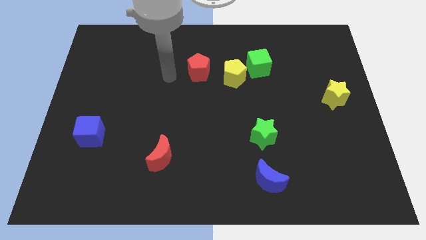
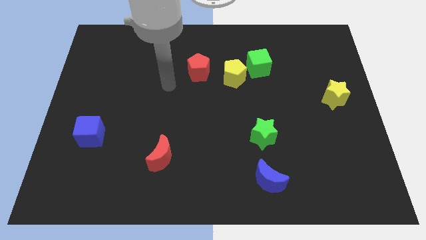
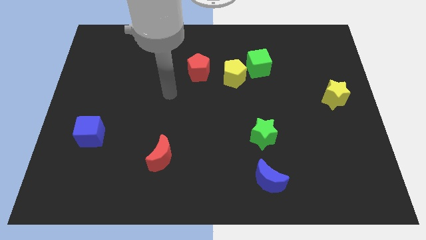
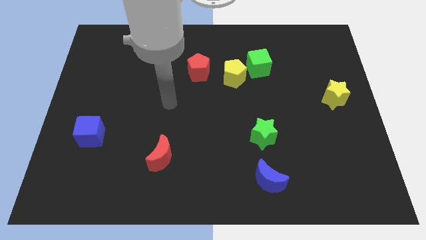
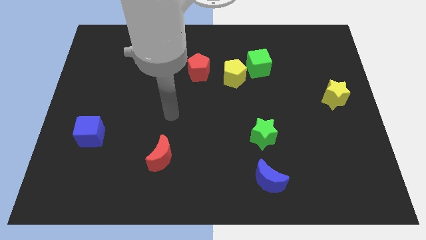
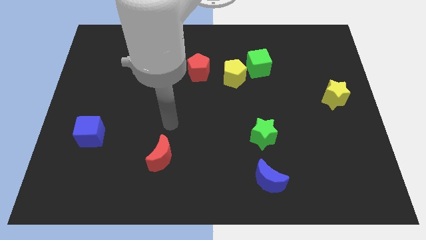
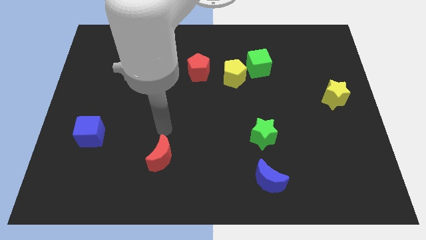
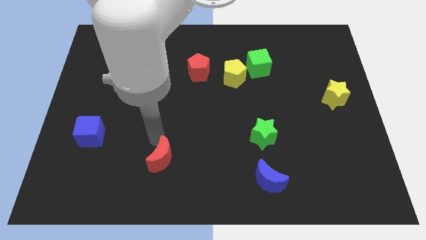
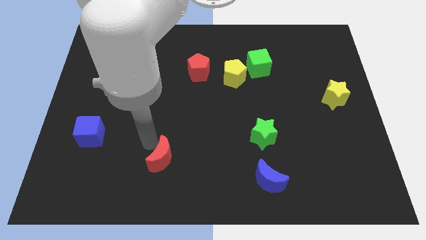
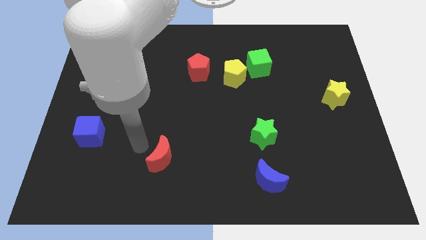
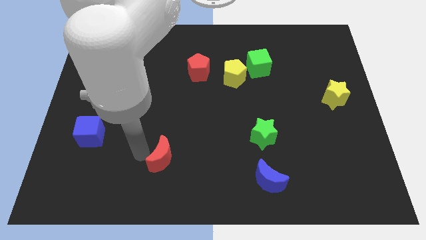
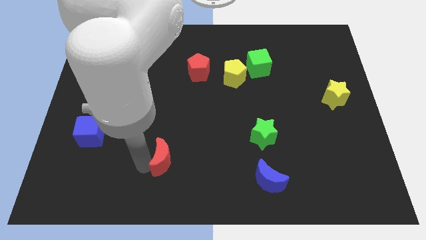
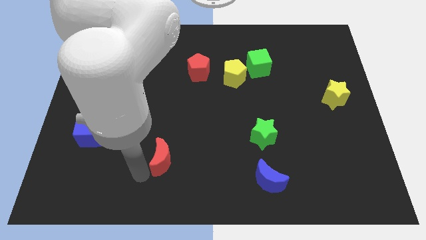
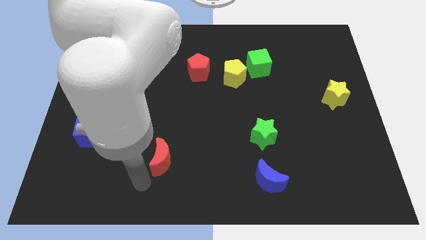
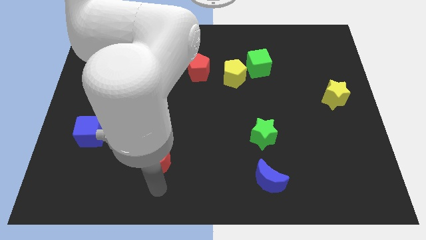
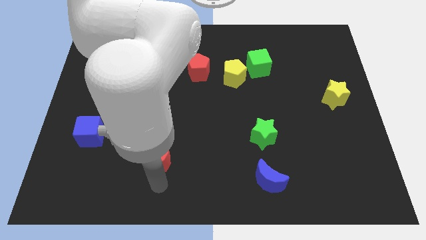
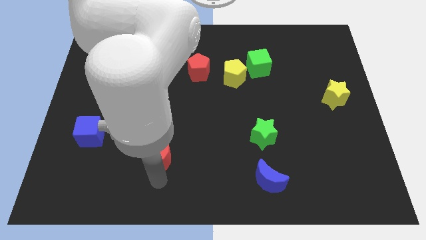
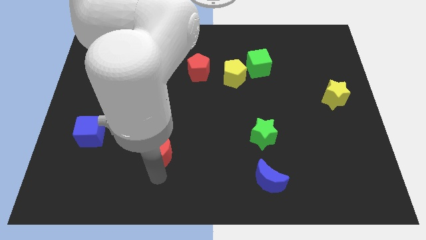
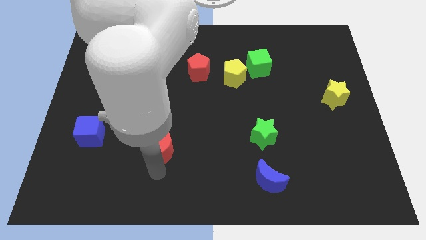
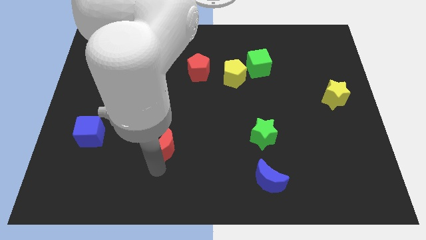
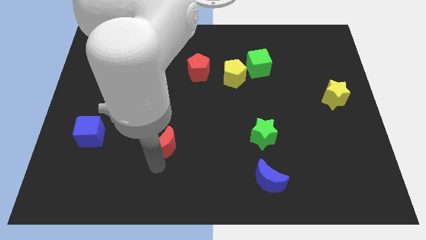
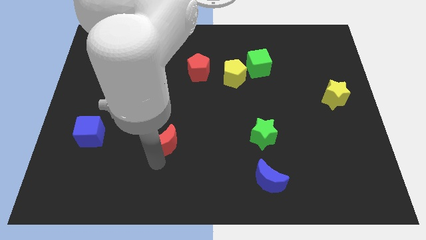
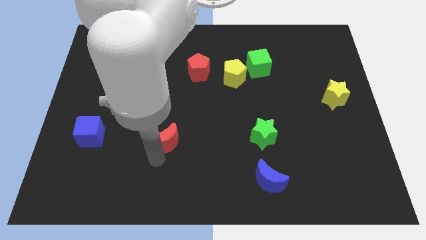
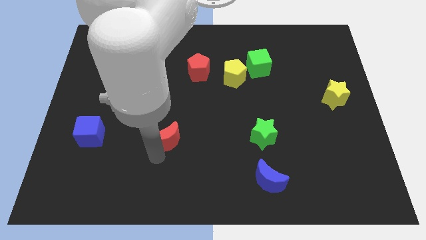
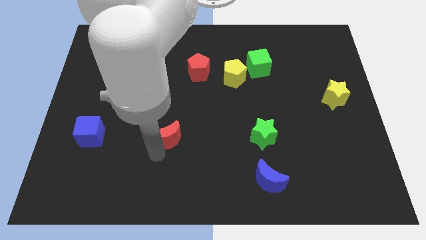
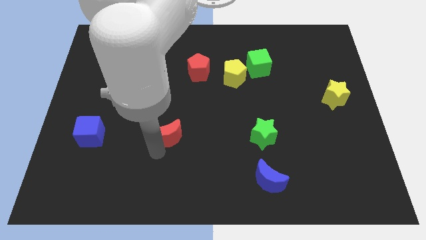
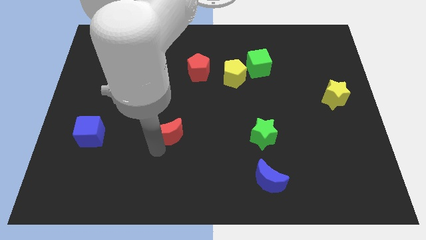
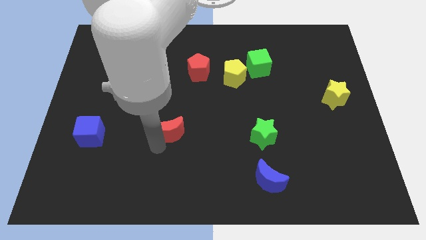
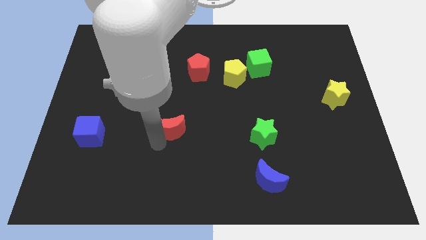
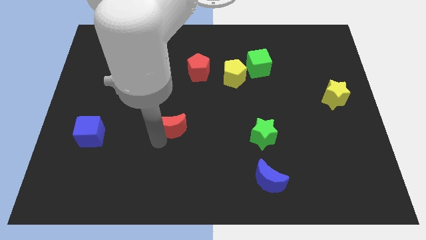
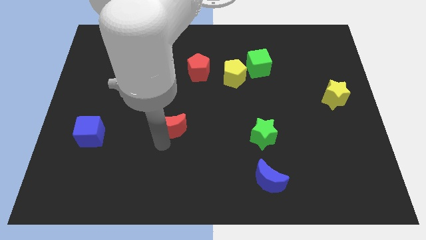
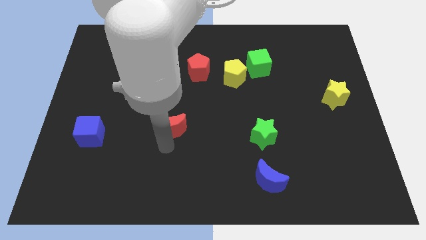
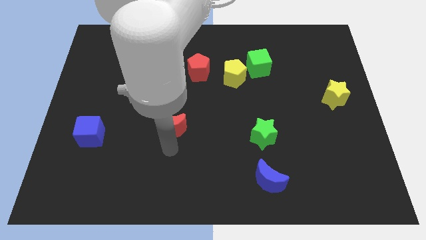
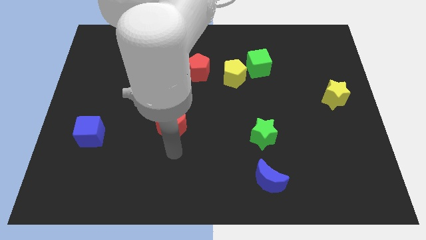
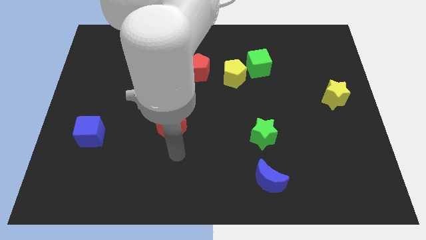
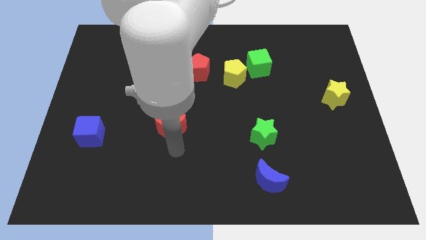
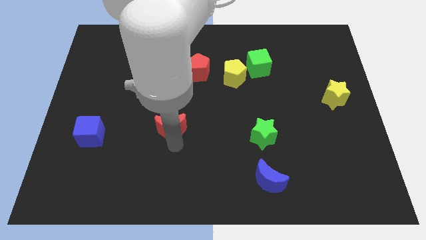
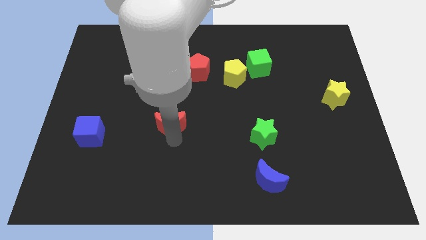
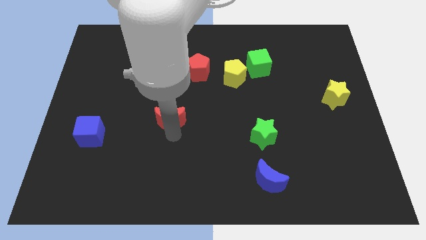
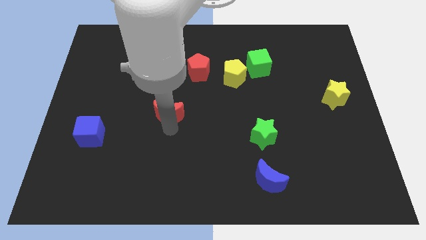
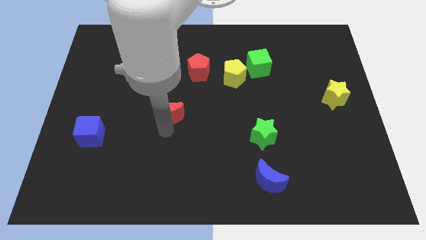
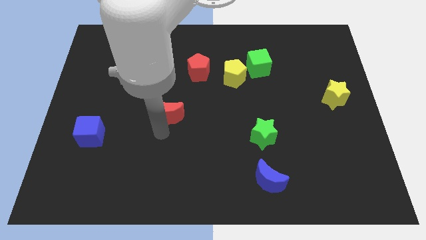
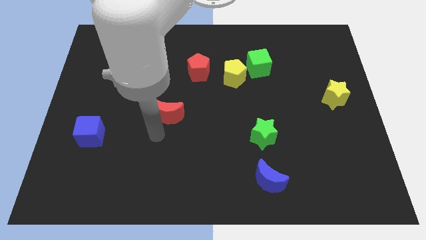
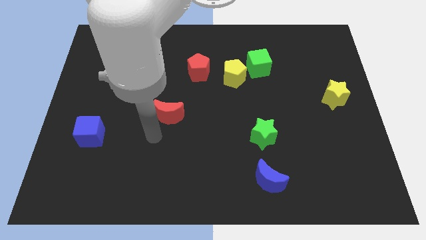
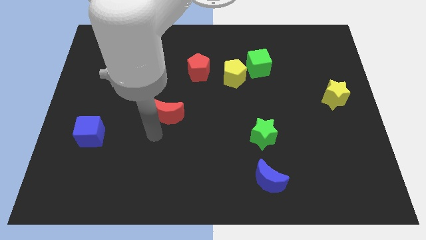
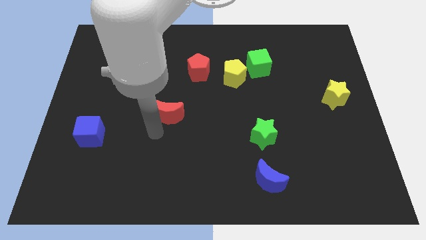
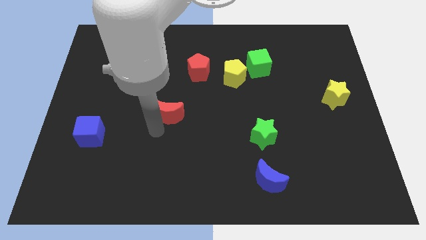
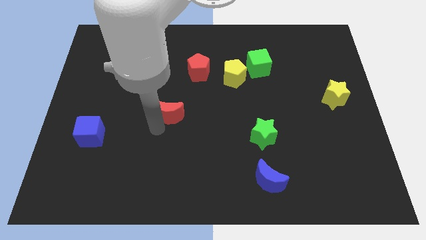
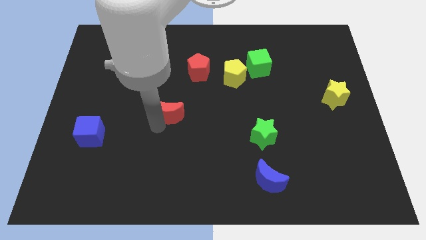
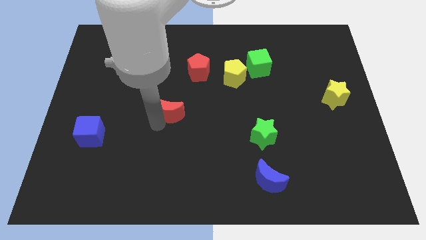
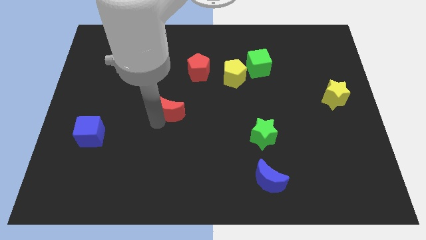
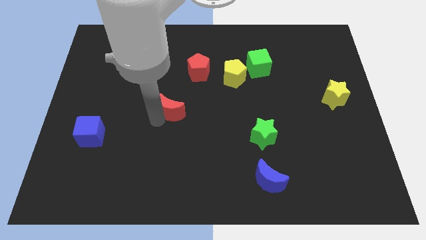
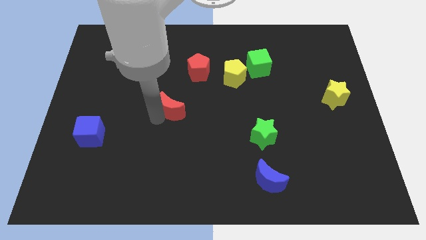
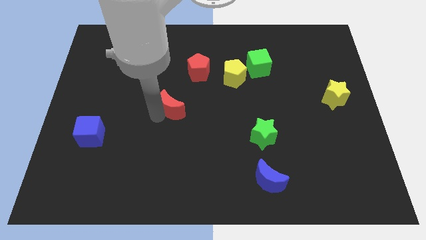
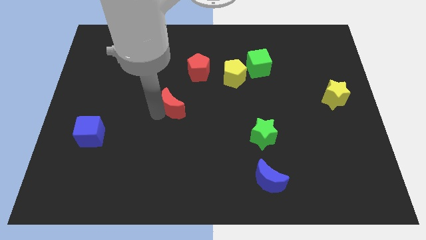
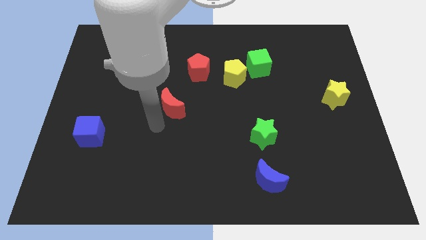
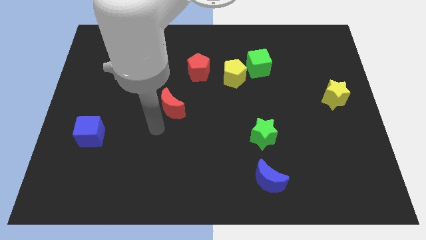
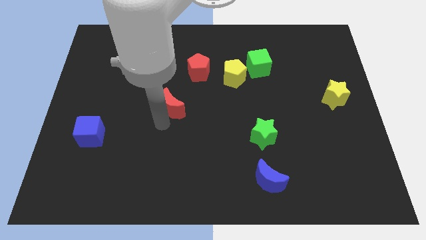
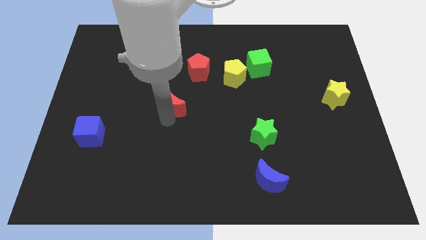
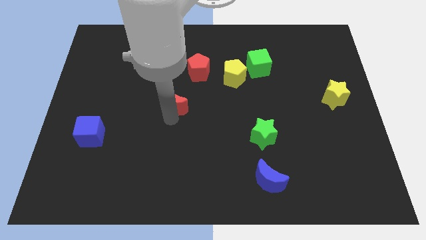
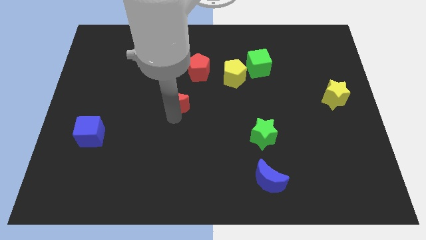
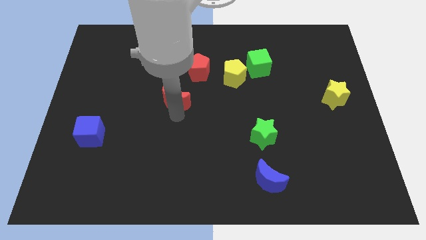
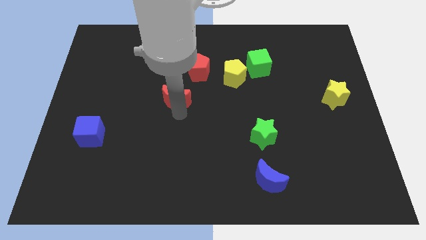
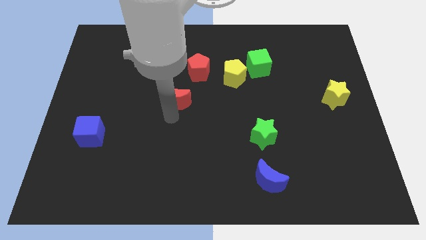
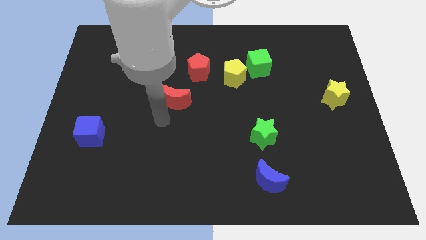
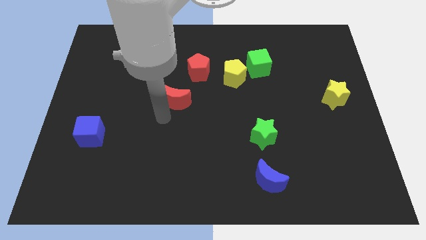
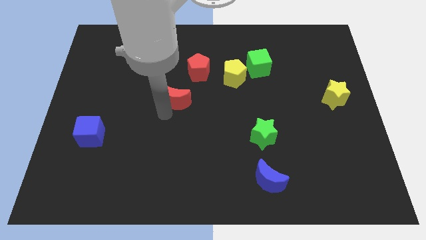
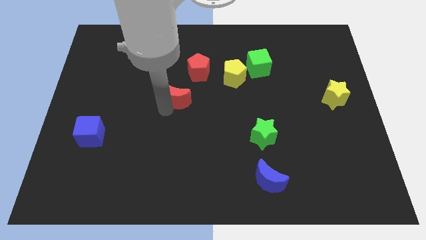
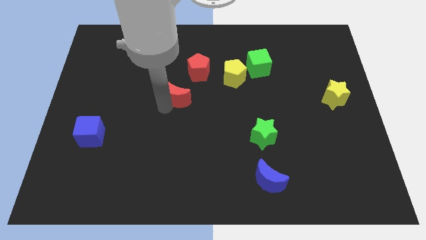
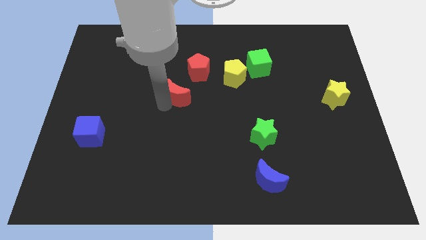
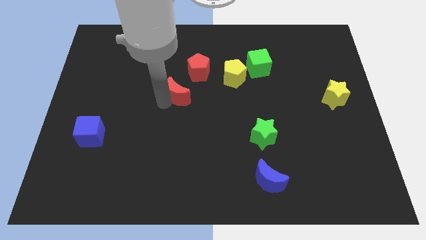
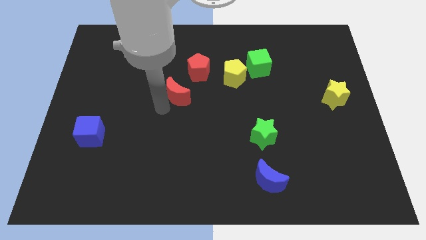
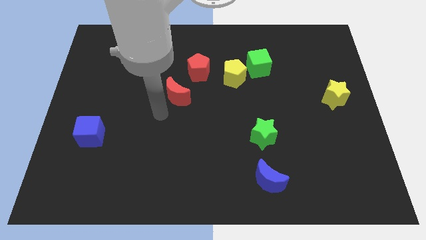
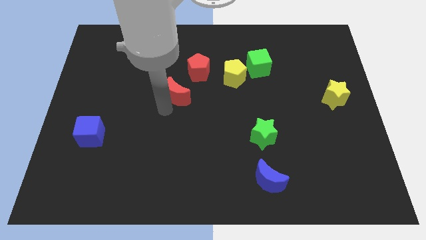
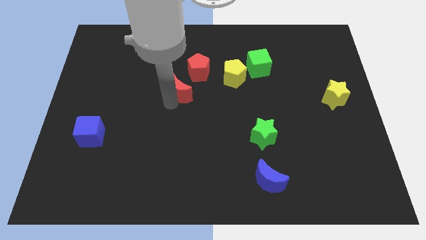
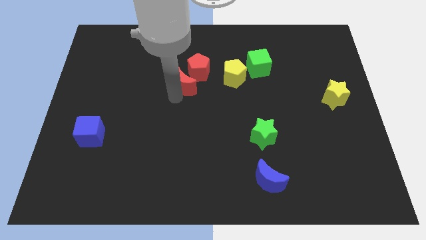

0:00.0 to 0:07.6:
move the red moon towards the red pentagon
